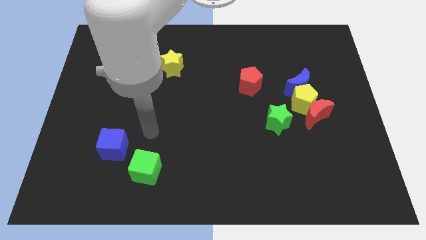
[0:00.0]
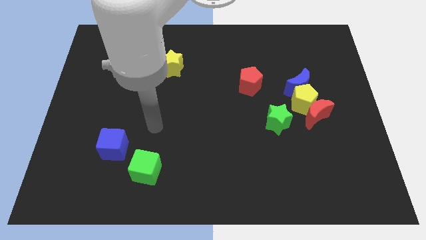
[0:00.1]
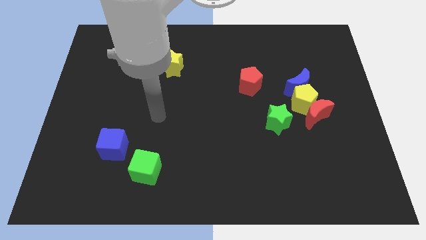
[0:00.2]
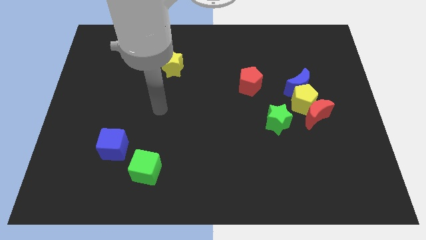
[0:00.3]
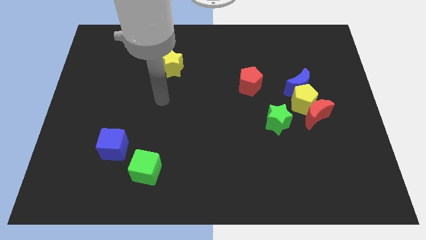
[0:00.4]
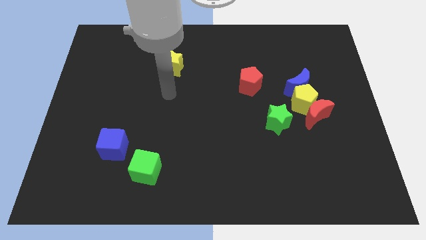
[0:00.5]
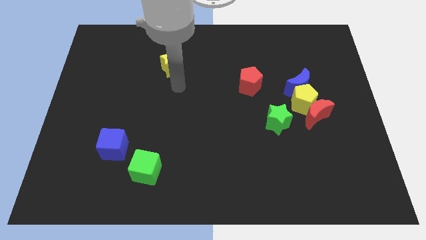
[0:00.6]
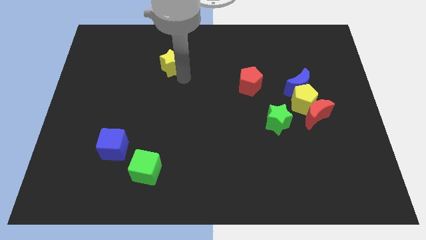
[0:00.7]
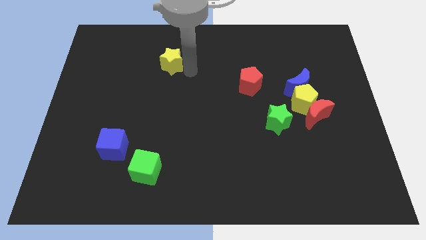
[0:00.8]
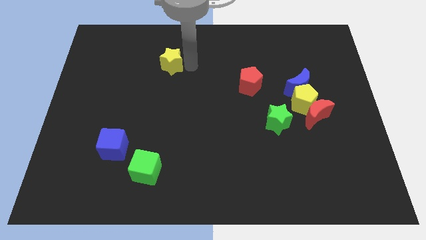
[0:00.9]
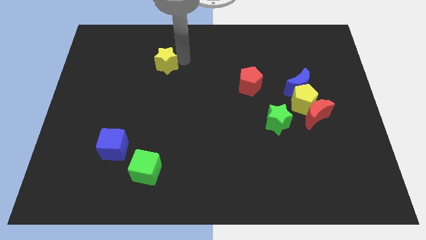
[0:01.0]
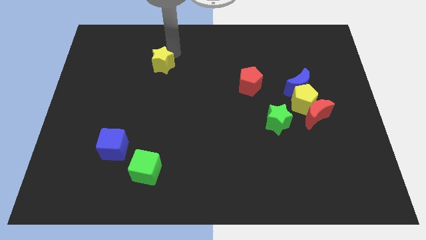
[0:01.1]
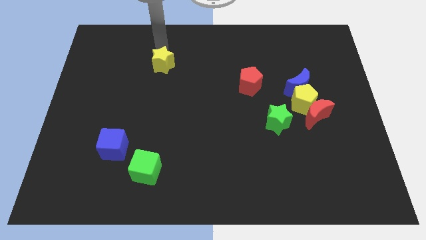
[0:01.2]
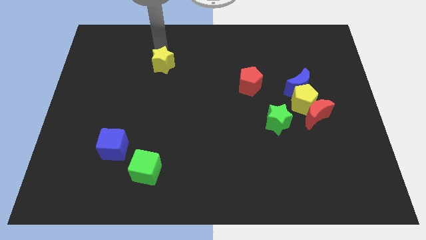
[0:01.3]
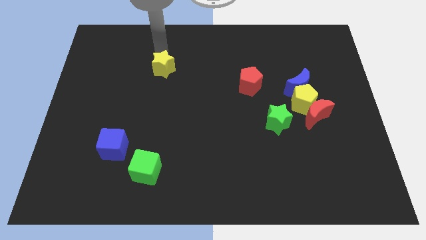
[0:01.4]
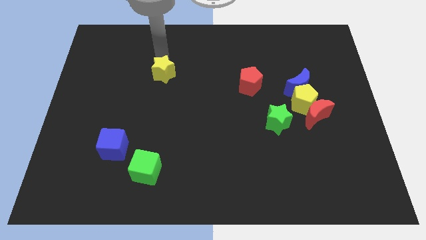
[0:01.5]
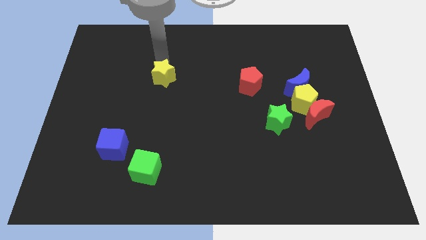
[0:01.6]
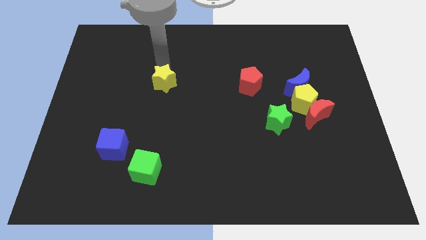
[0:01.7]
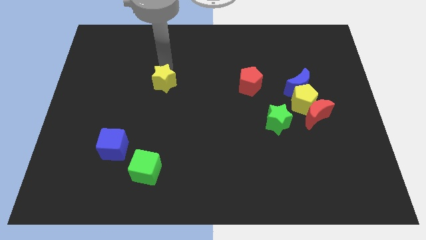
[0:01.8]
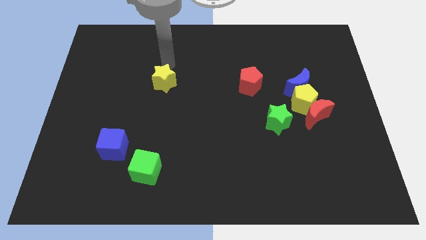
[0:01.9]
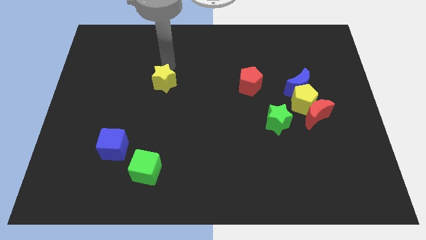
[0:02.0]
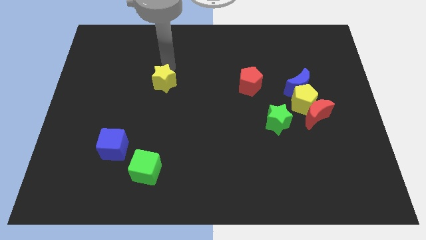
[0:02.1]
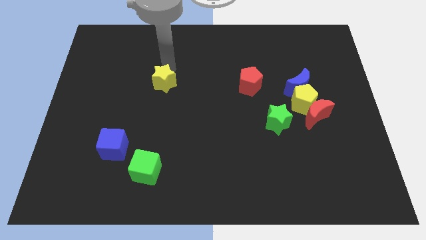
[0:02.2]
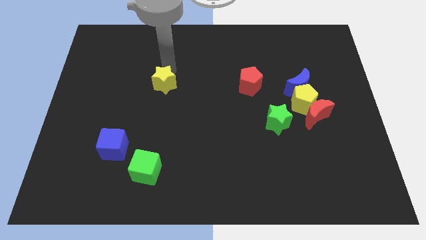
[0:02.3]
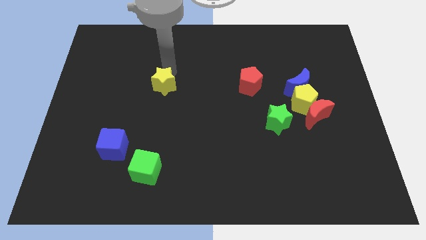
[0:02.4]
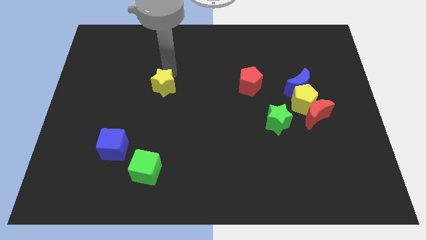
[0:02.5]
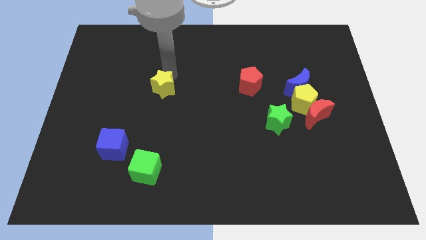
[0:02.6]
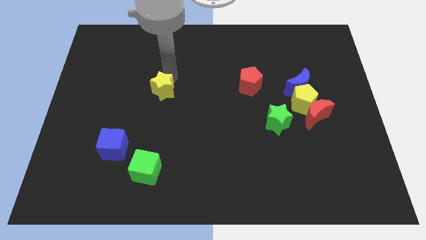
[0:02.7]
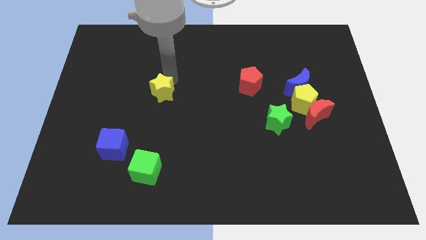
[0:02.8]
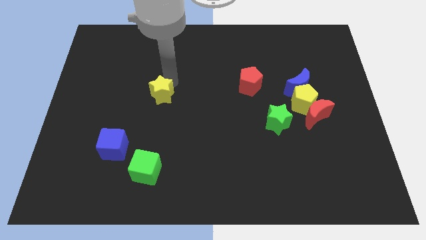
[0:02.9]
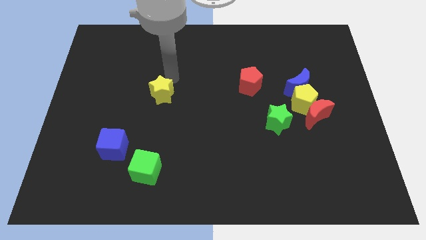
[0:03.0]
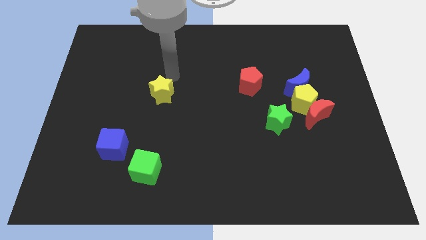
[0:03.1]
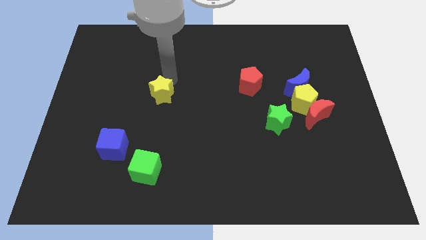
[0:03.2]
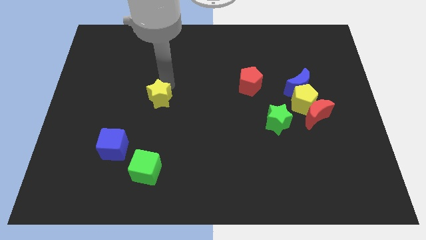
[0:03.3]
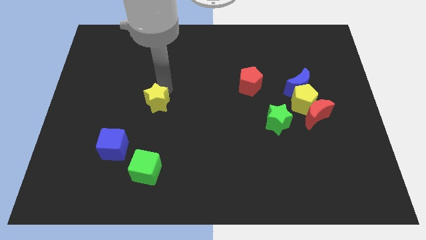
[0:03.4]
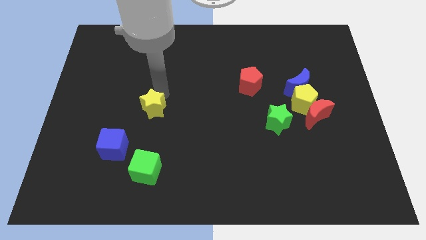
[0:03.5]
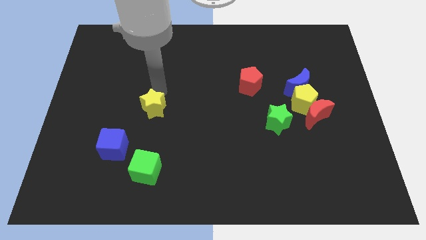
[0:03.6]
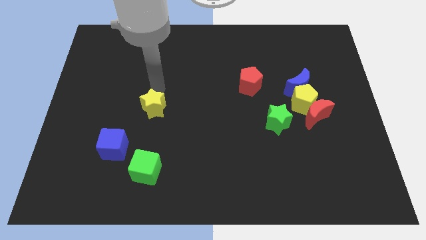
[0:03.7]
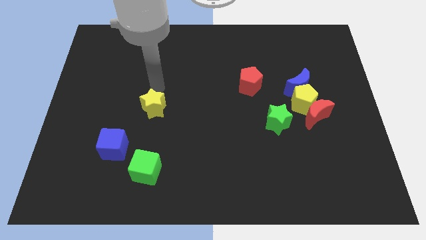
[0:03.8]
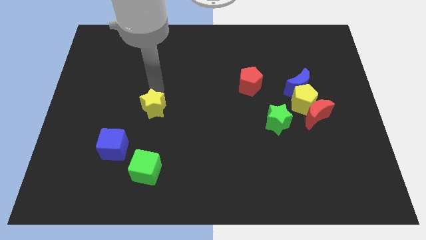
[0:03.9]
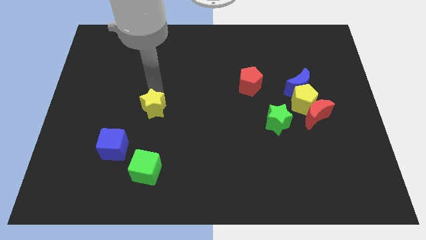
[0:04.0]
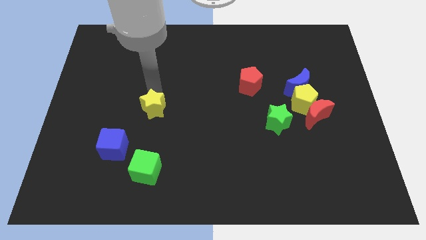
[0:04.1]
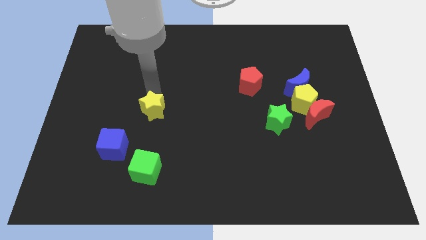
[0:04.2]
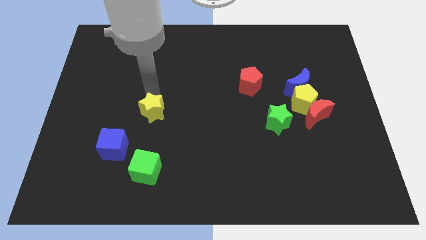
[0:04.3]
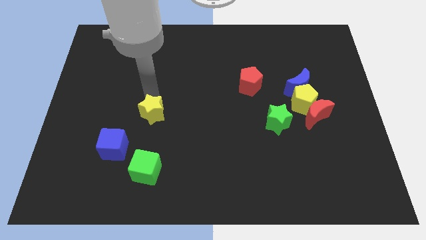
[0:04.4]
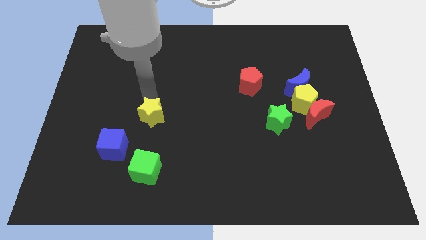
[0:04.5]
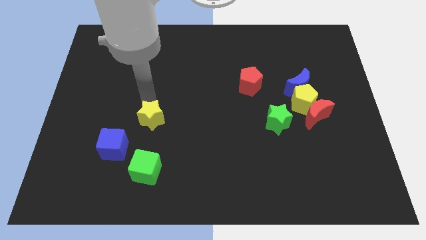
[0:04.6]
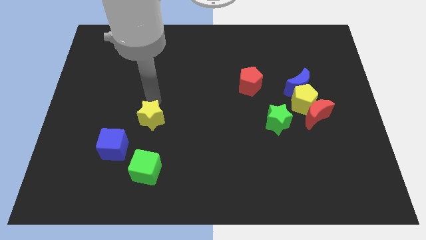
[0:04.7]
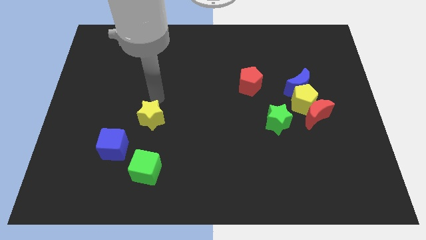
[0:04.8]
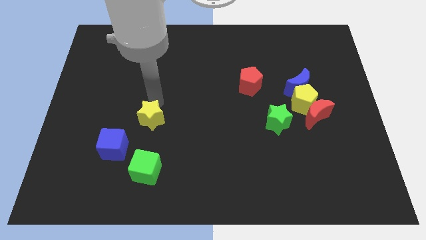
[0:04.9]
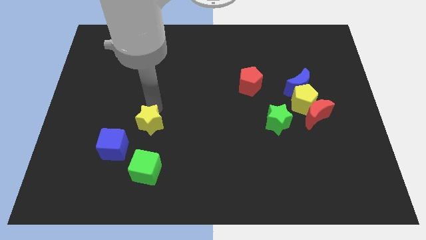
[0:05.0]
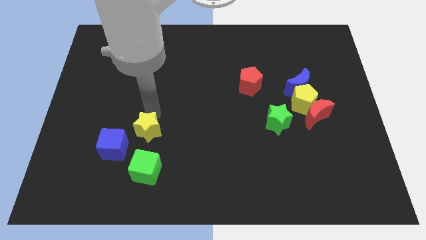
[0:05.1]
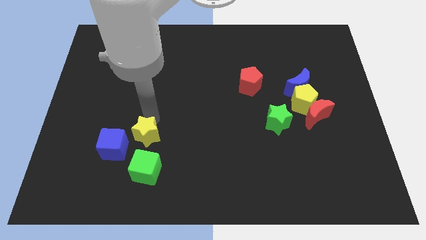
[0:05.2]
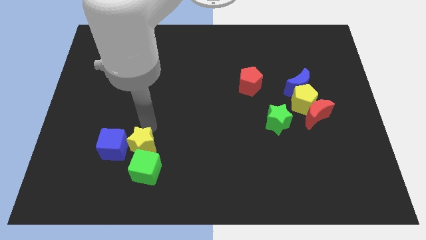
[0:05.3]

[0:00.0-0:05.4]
move the yellow star next to the green cube

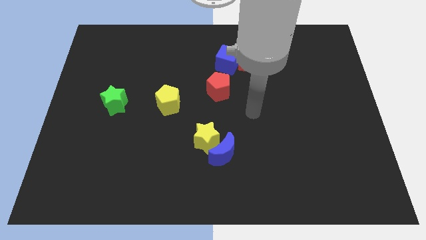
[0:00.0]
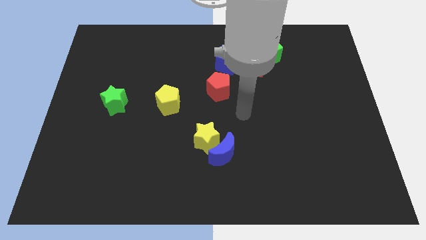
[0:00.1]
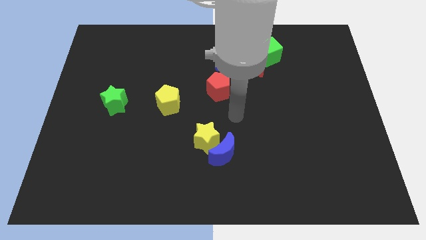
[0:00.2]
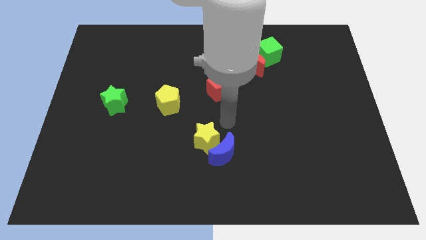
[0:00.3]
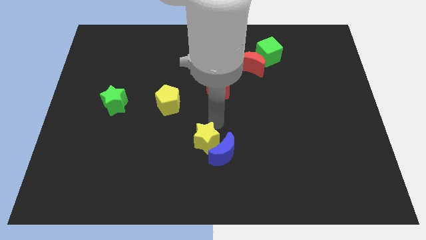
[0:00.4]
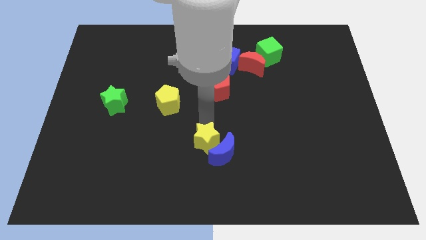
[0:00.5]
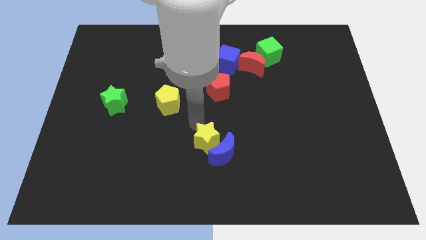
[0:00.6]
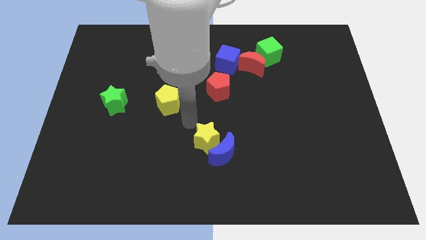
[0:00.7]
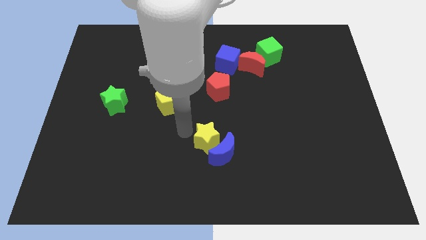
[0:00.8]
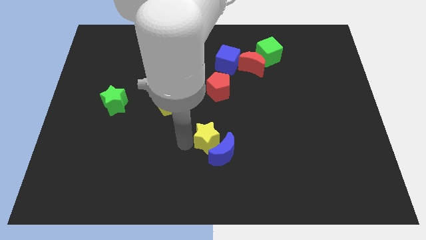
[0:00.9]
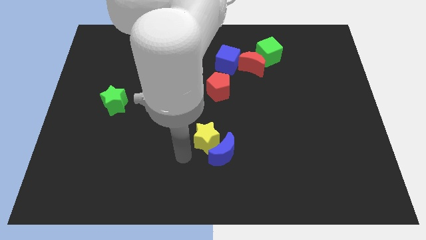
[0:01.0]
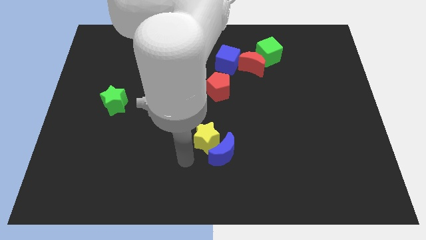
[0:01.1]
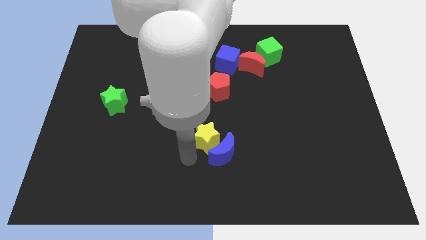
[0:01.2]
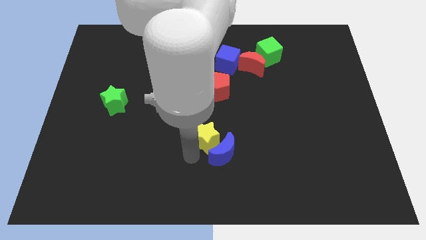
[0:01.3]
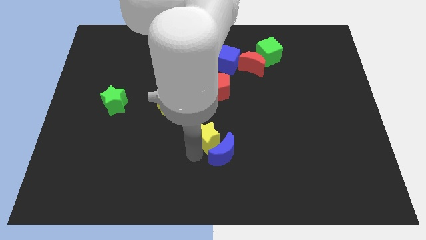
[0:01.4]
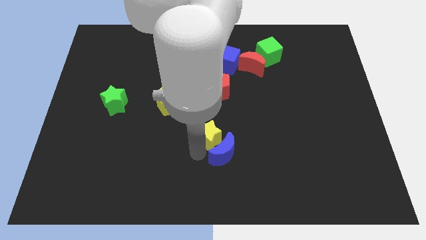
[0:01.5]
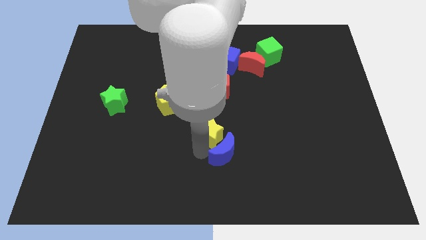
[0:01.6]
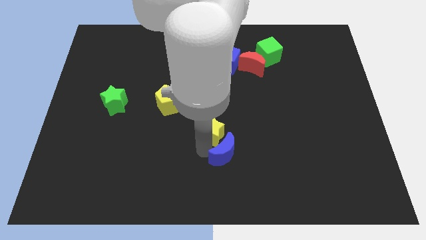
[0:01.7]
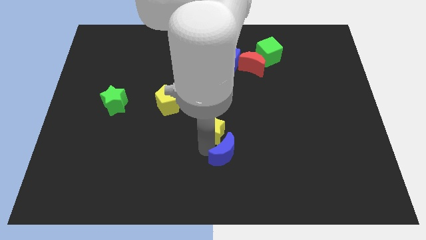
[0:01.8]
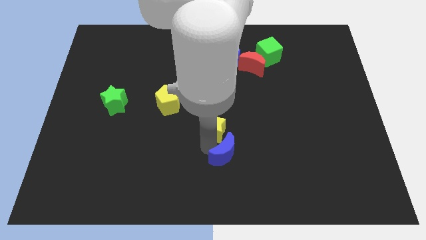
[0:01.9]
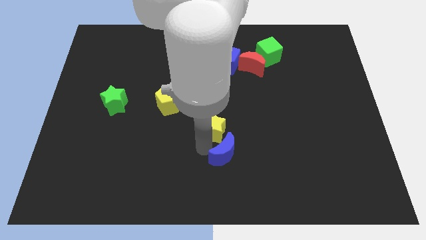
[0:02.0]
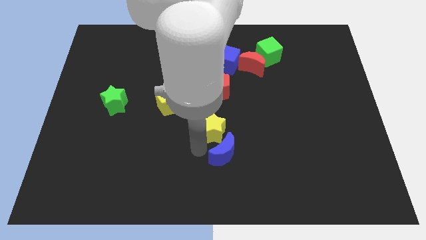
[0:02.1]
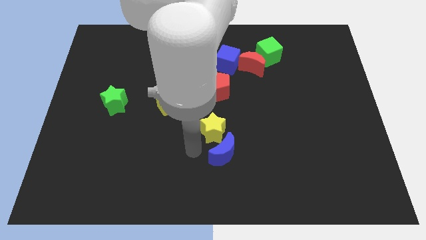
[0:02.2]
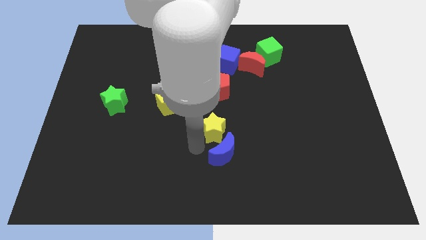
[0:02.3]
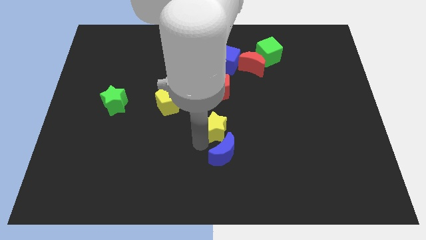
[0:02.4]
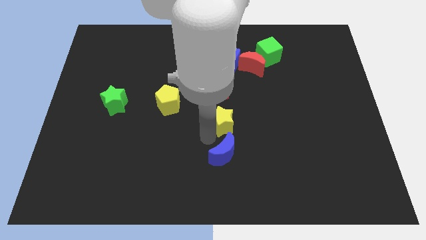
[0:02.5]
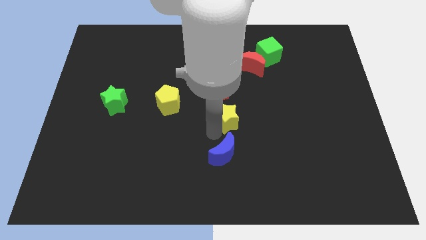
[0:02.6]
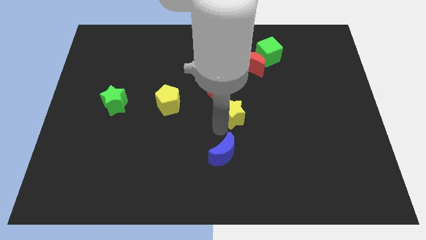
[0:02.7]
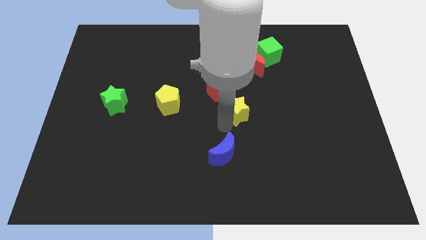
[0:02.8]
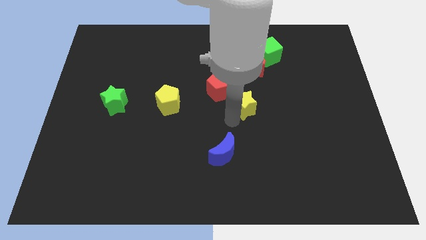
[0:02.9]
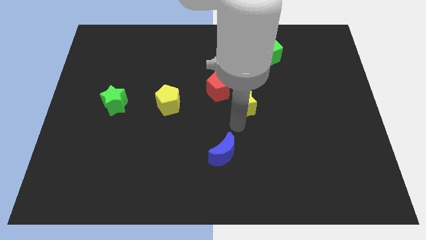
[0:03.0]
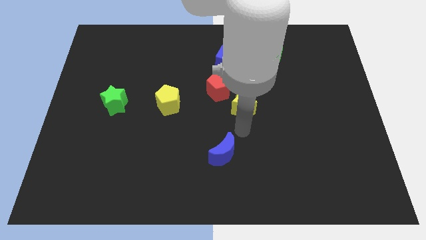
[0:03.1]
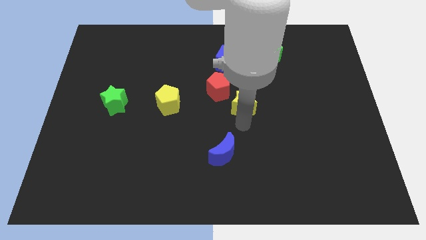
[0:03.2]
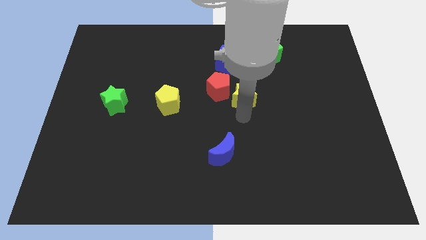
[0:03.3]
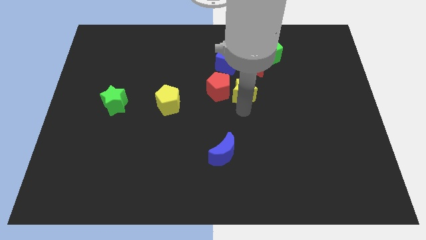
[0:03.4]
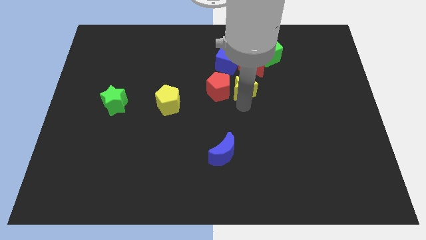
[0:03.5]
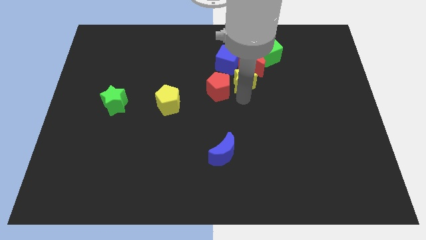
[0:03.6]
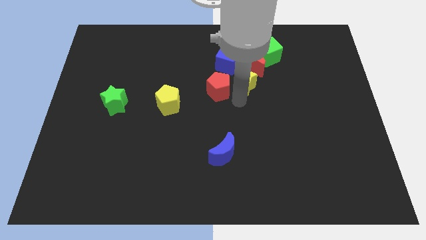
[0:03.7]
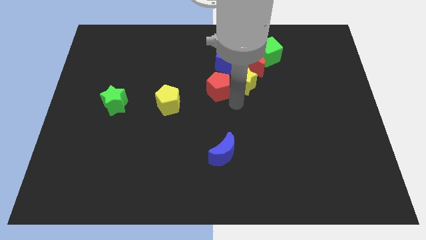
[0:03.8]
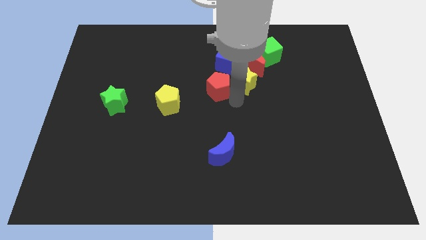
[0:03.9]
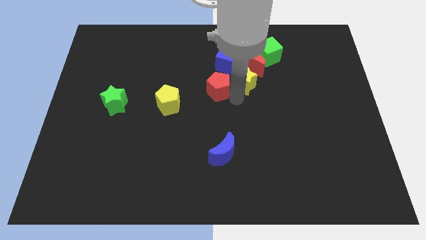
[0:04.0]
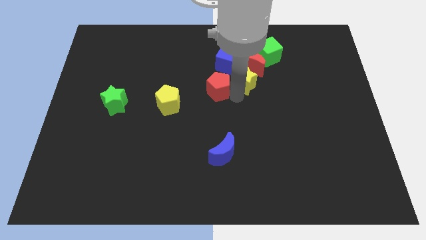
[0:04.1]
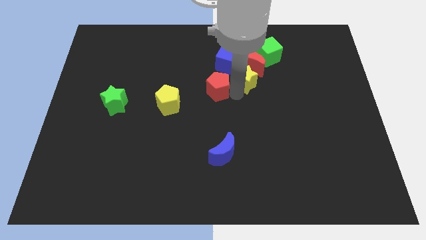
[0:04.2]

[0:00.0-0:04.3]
slide the yellow star next to the red moon
